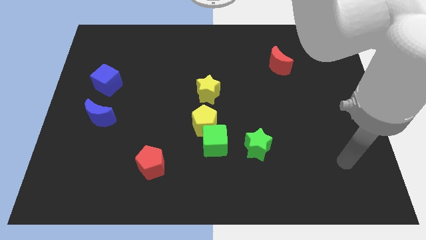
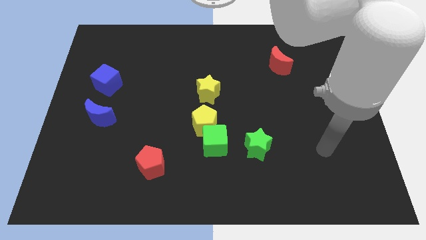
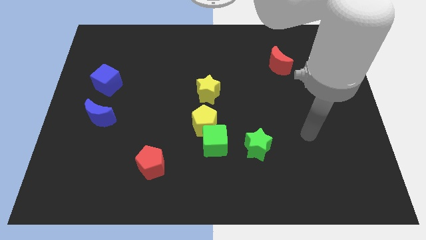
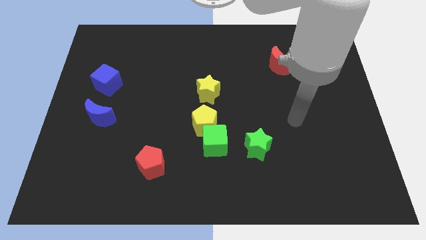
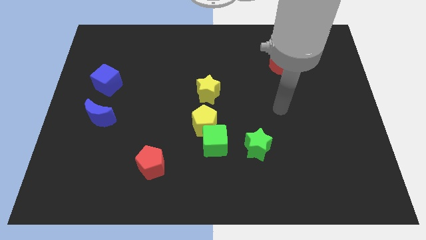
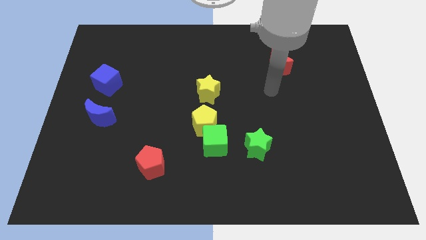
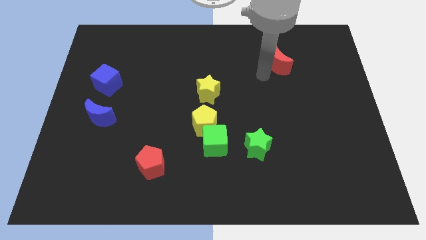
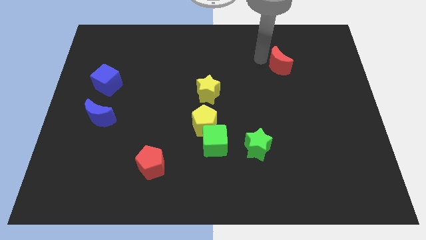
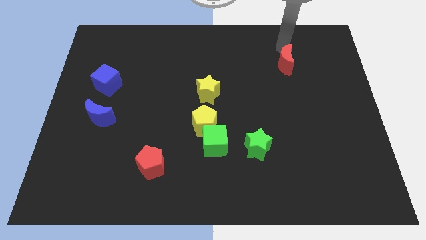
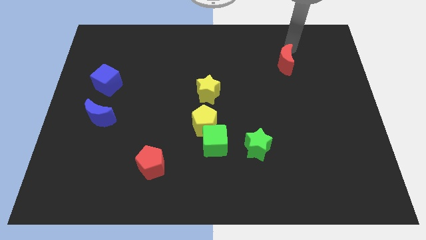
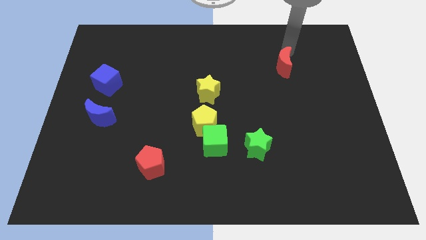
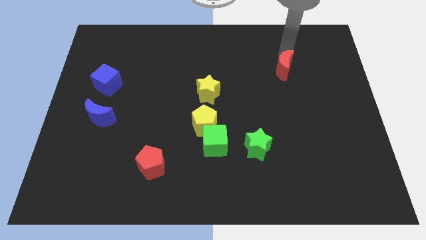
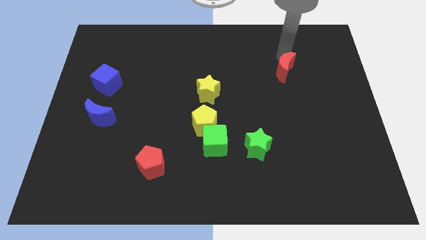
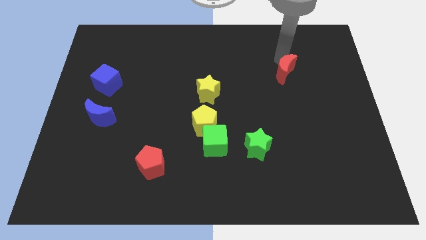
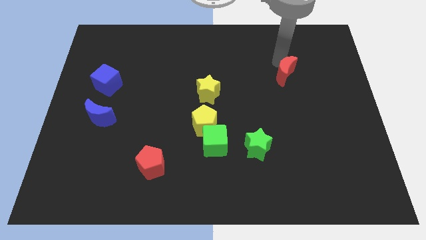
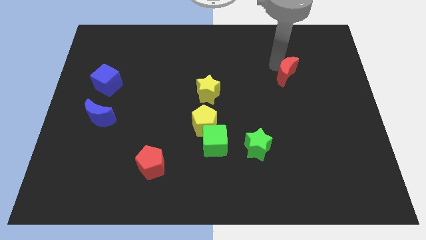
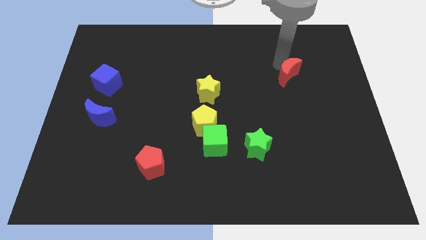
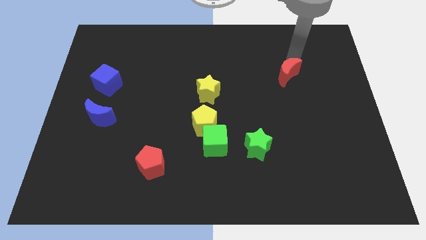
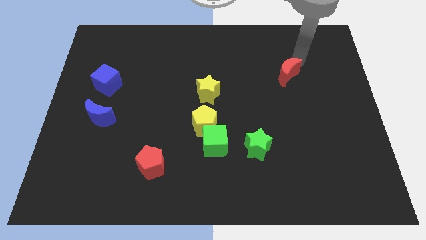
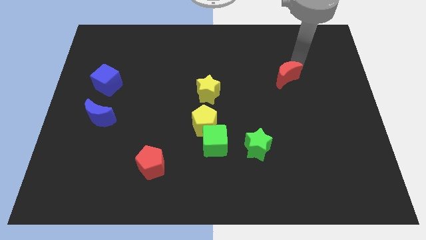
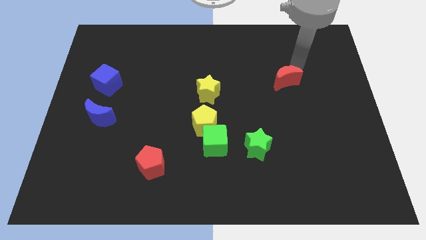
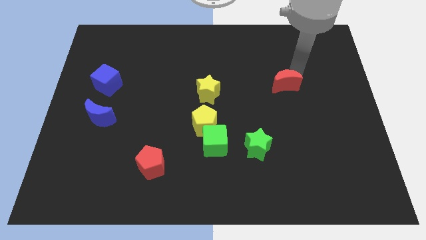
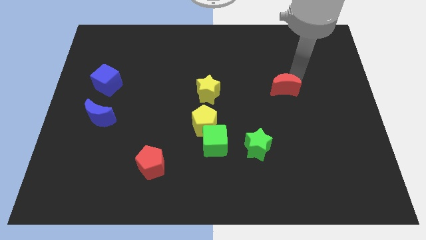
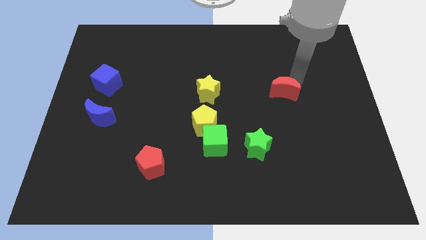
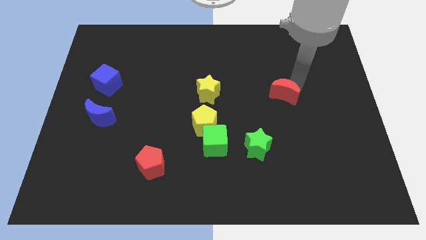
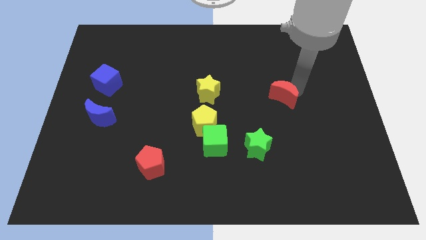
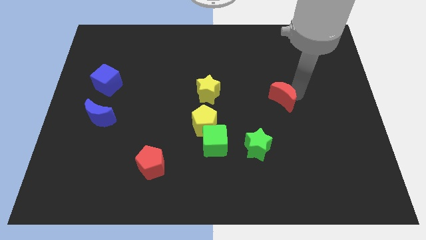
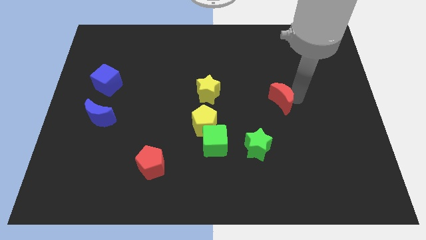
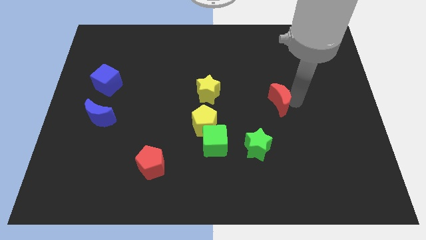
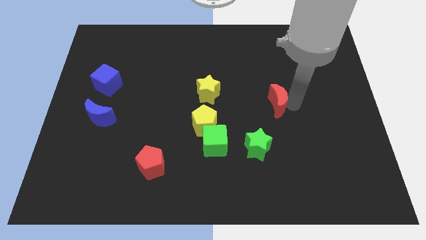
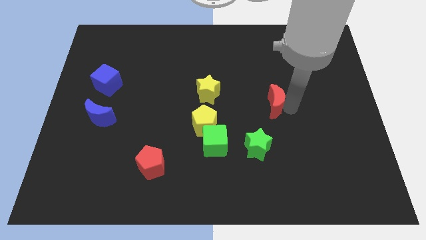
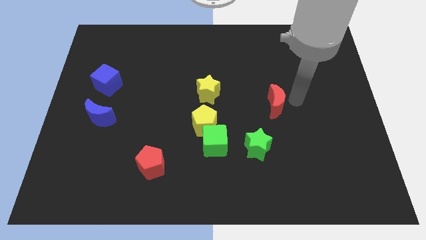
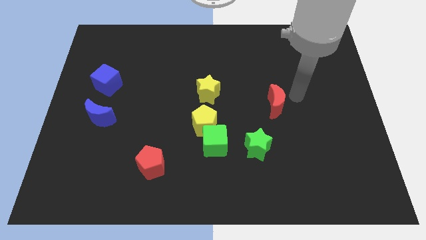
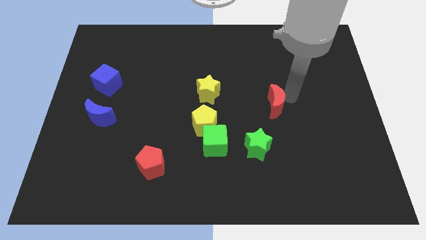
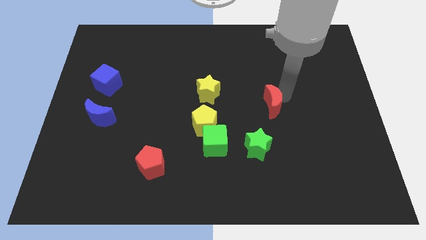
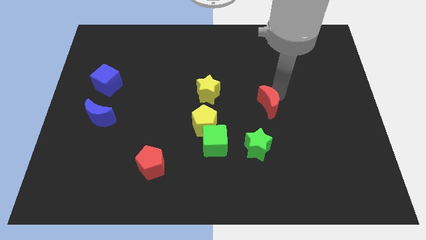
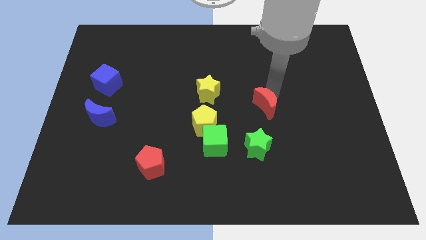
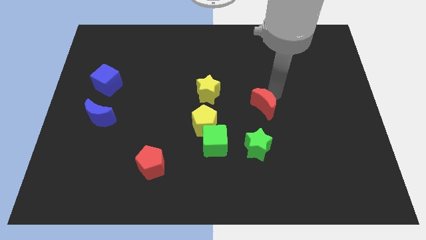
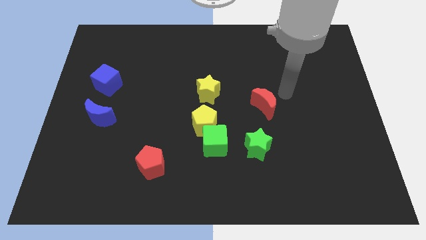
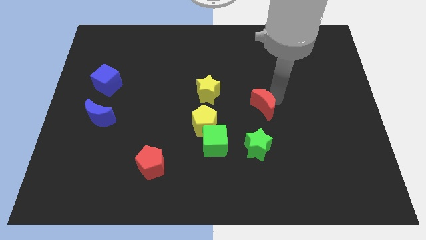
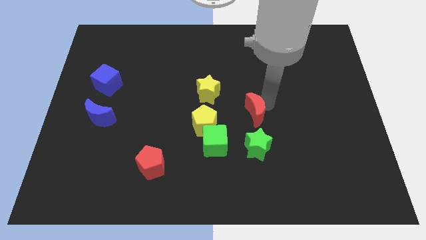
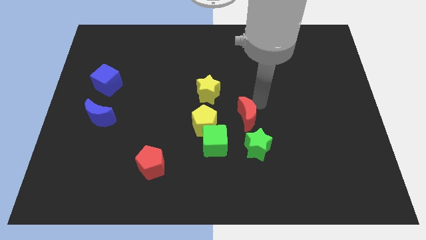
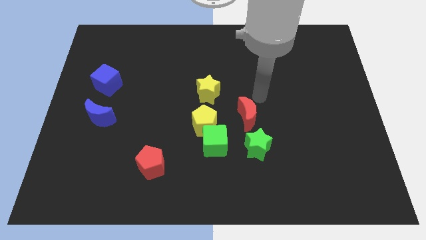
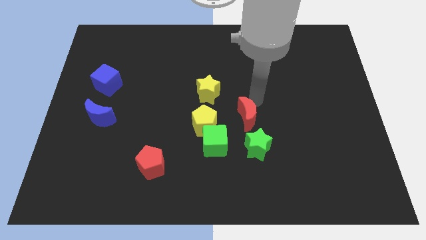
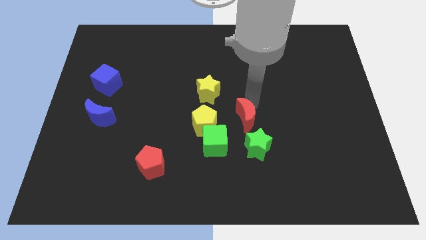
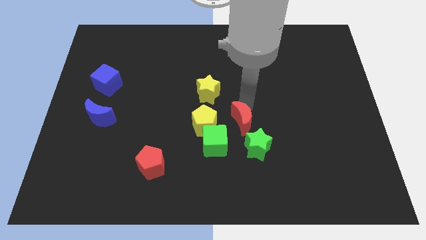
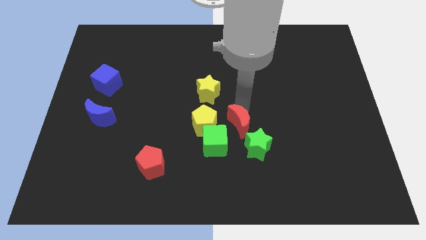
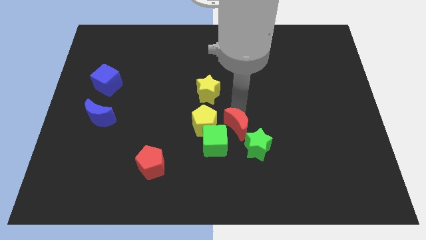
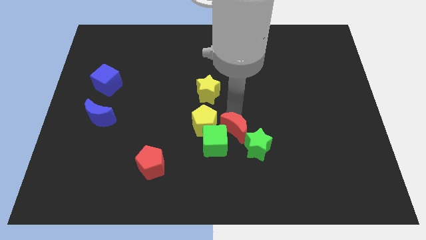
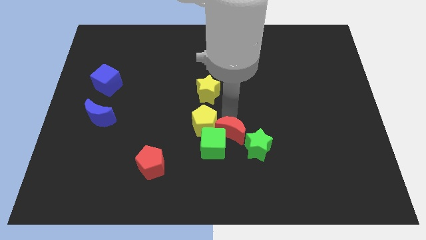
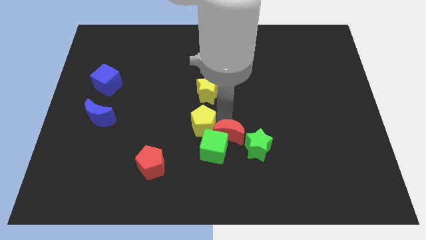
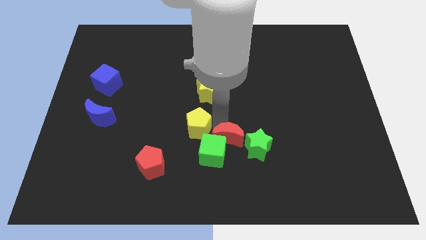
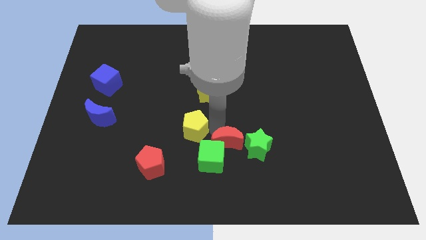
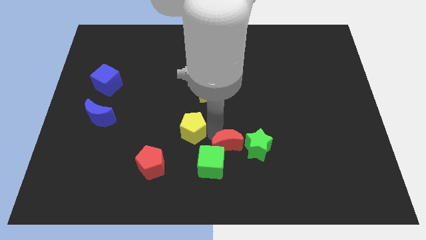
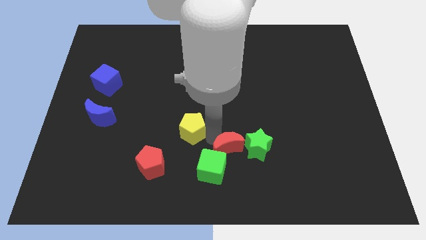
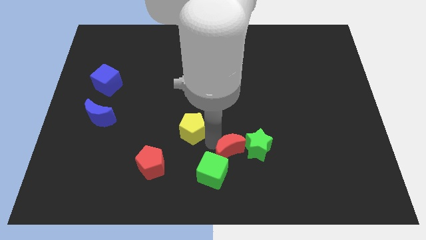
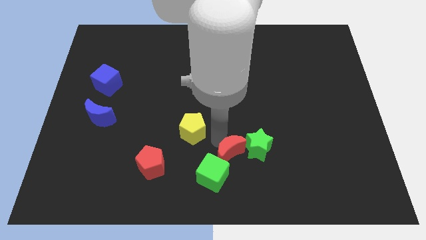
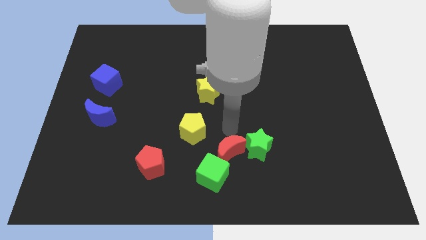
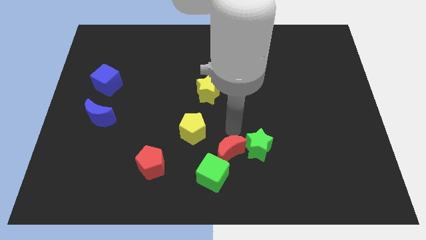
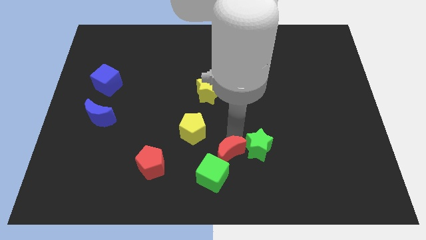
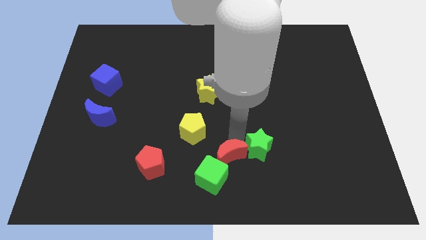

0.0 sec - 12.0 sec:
move the red moon to the bottom side

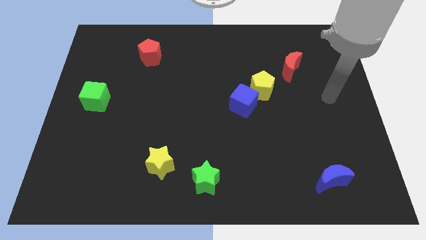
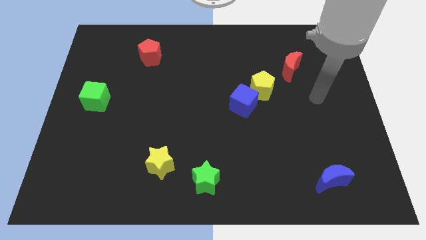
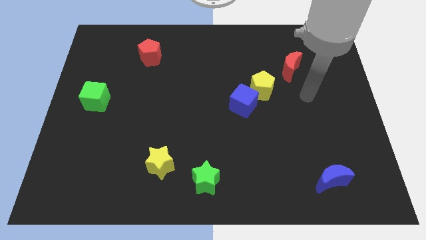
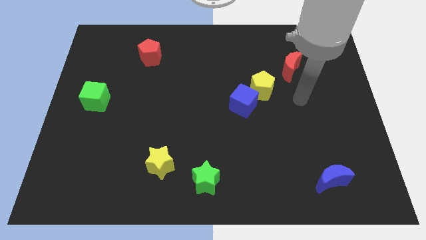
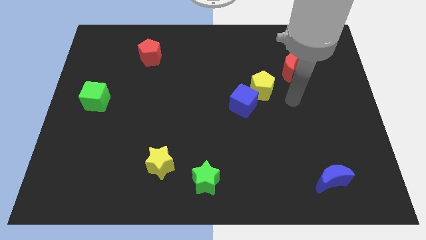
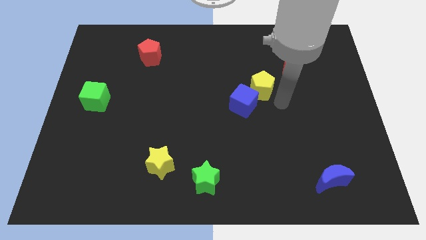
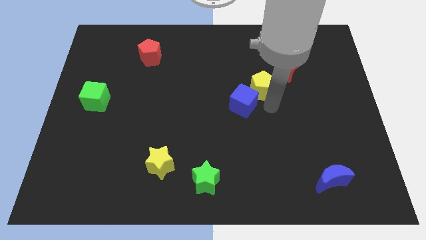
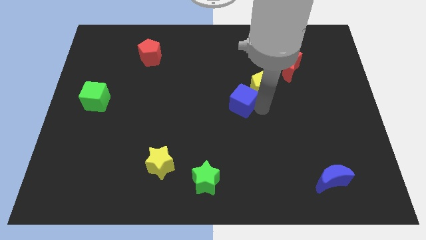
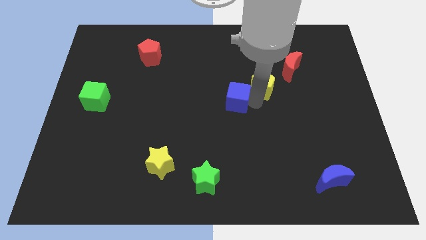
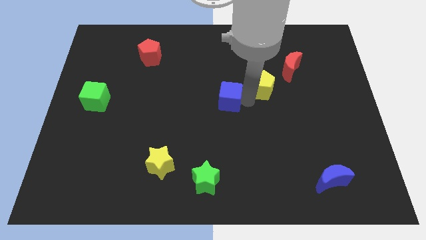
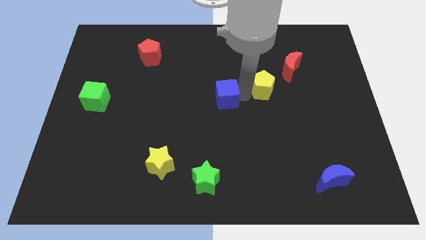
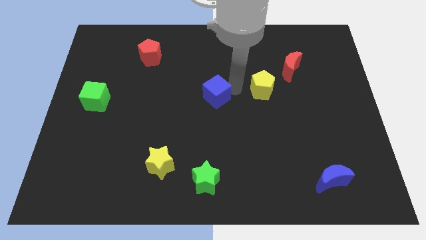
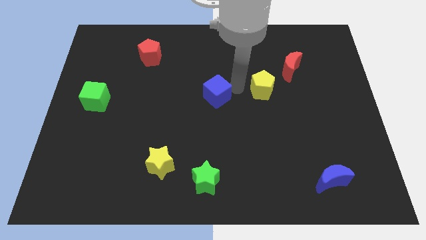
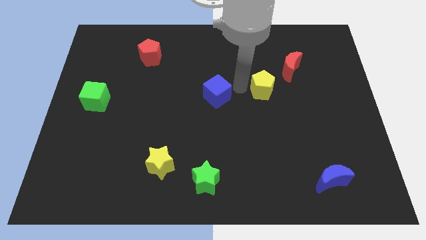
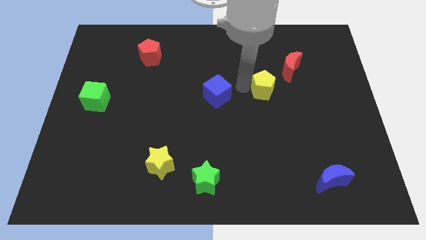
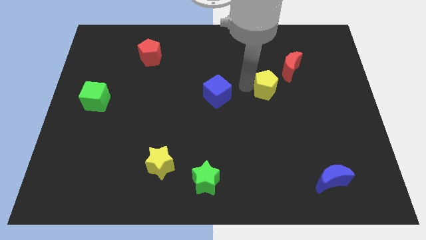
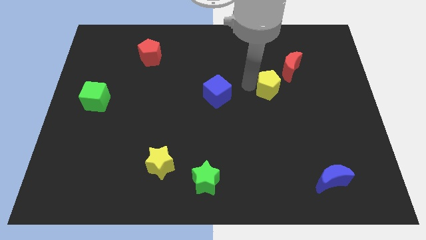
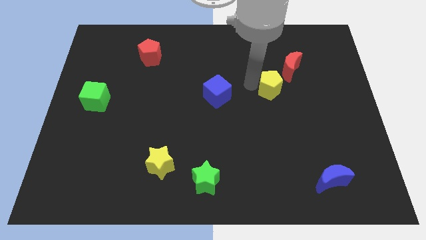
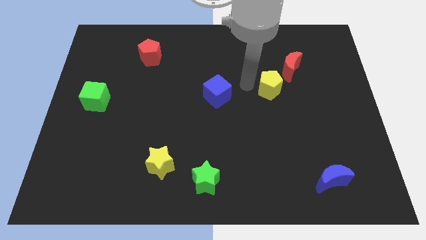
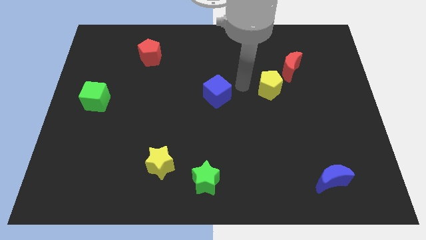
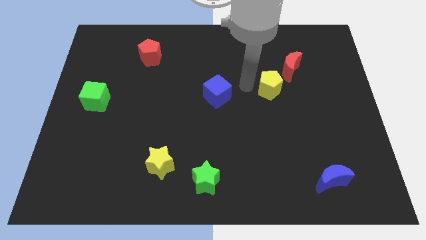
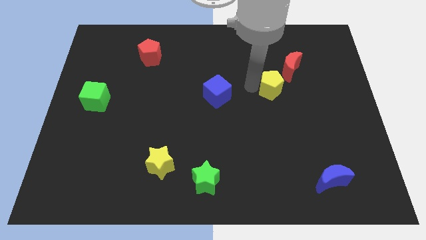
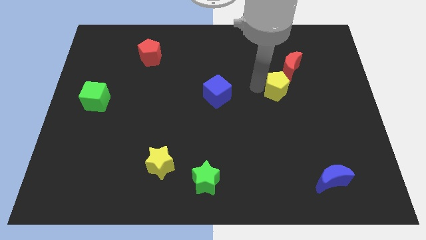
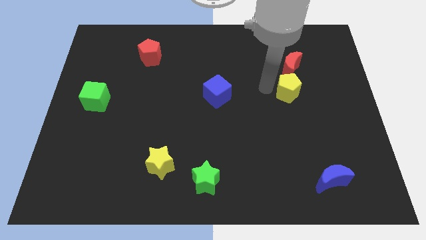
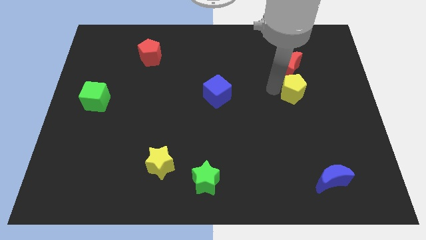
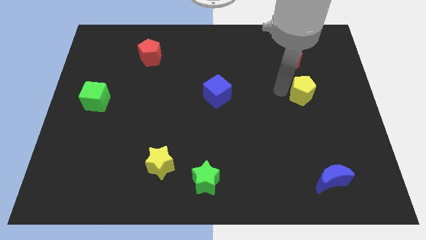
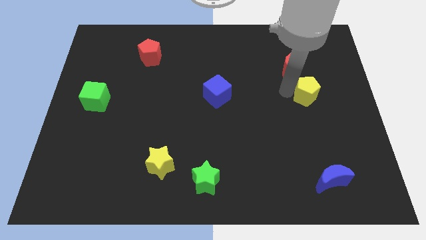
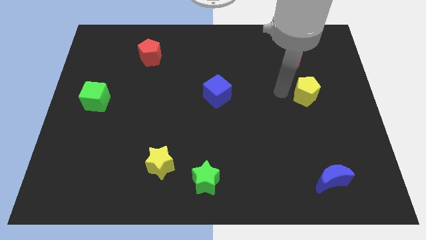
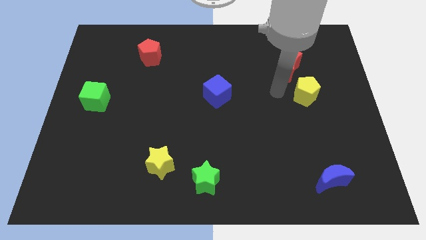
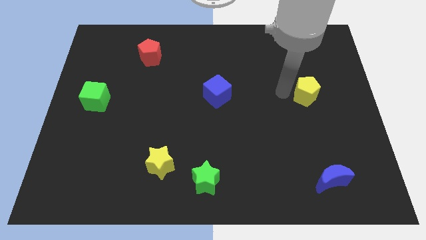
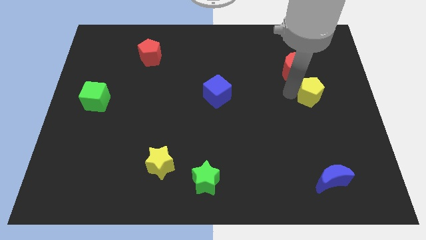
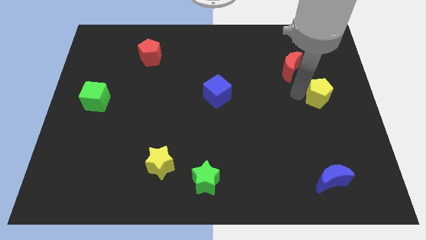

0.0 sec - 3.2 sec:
push the yellow pentagon to the right side of the board
